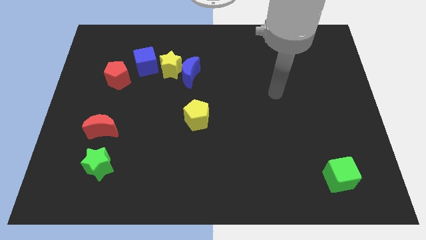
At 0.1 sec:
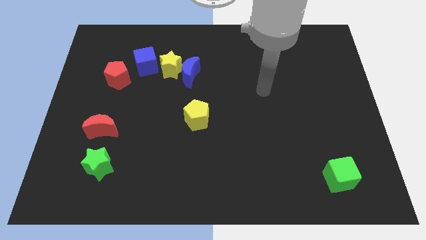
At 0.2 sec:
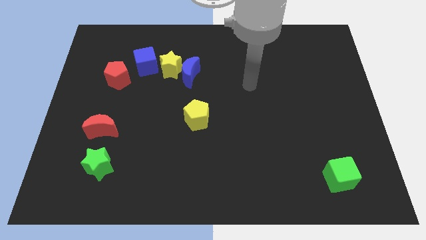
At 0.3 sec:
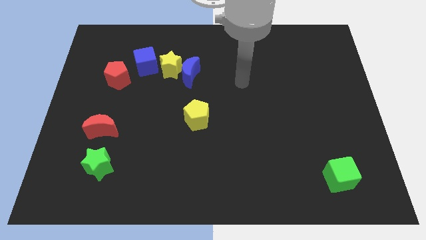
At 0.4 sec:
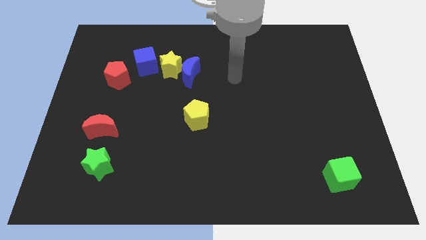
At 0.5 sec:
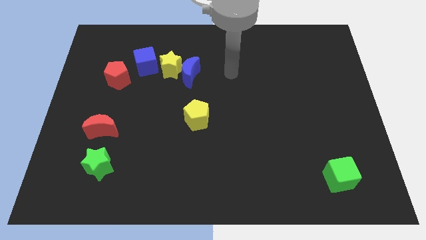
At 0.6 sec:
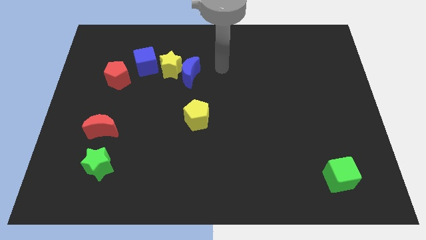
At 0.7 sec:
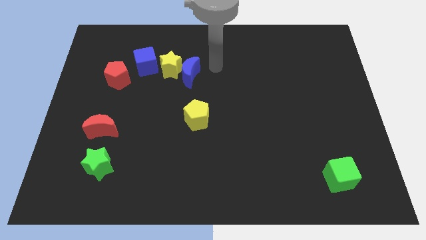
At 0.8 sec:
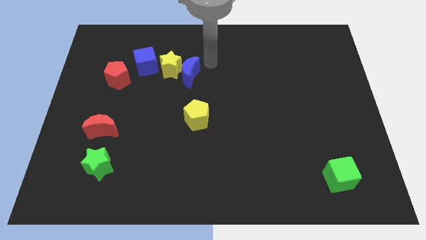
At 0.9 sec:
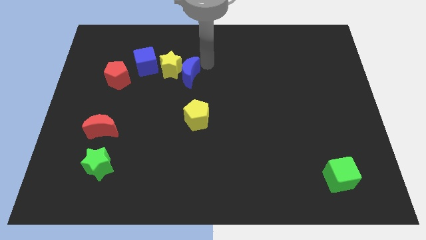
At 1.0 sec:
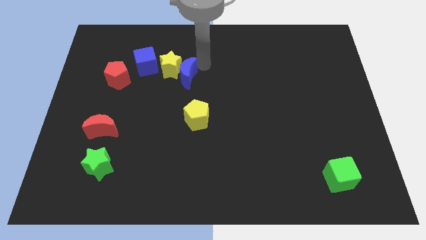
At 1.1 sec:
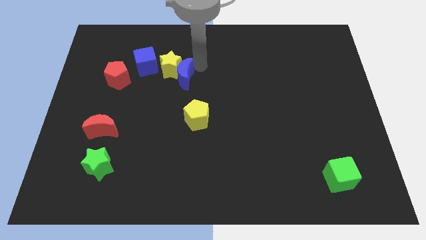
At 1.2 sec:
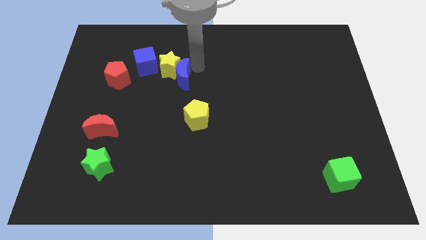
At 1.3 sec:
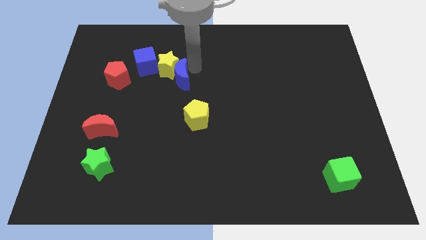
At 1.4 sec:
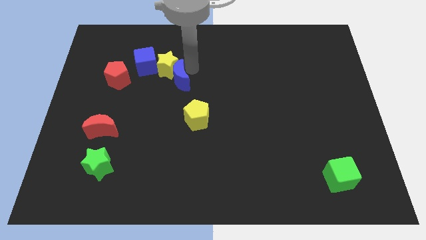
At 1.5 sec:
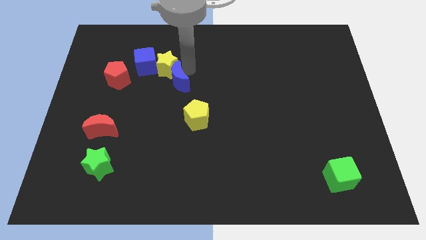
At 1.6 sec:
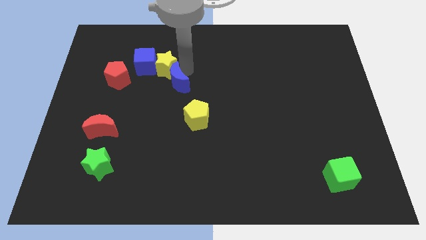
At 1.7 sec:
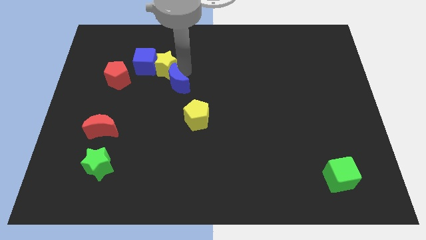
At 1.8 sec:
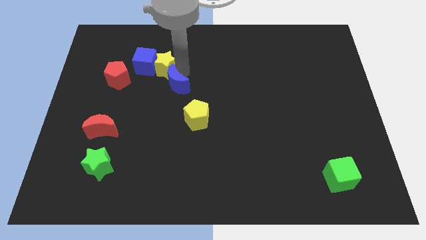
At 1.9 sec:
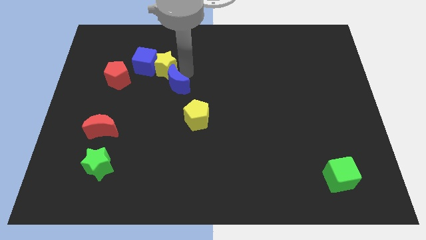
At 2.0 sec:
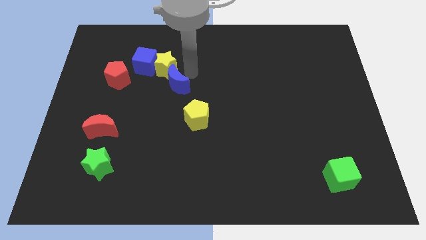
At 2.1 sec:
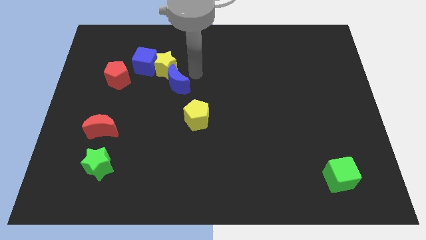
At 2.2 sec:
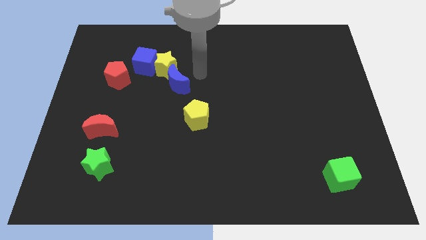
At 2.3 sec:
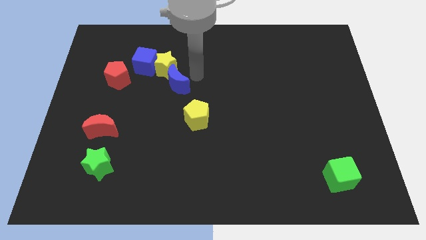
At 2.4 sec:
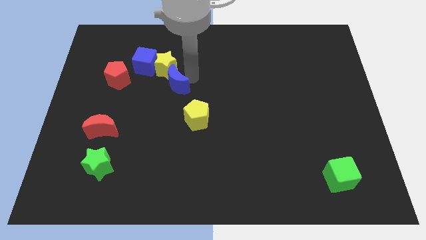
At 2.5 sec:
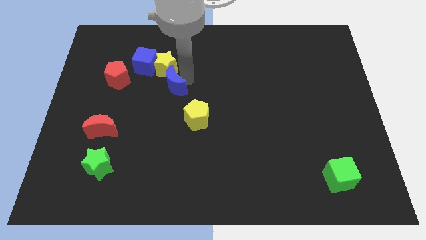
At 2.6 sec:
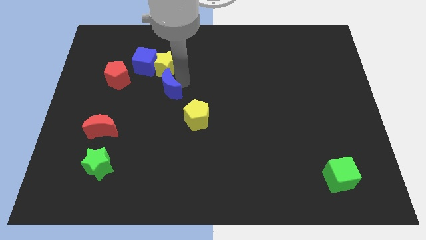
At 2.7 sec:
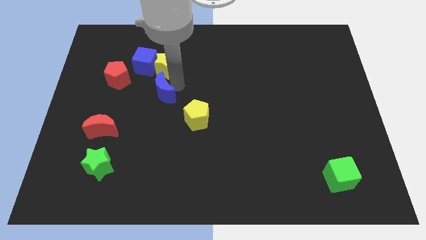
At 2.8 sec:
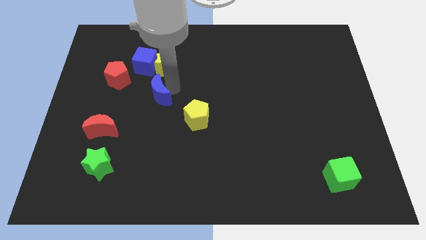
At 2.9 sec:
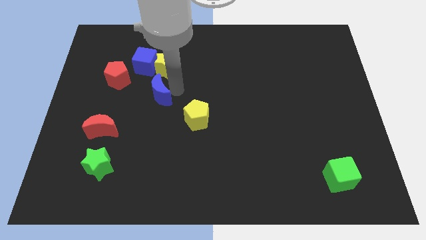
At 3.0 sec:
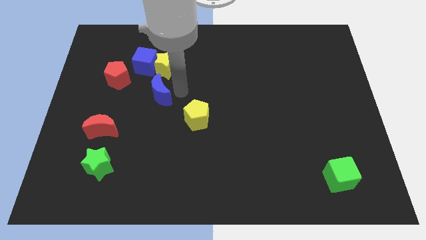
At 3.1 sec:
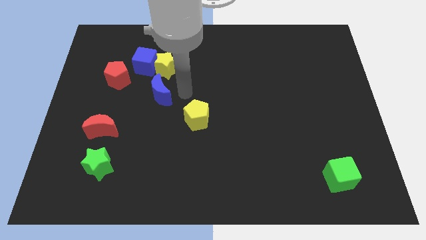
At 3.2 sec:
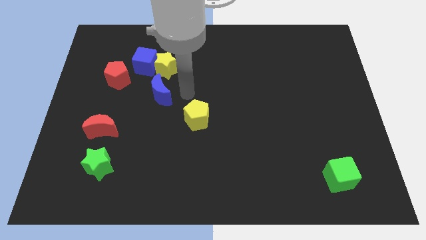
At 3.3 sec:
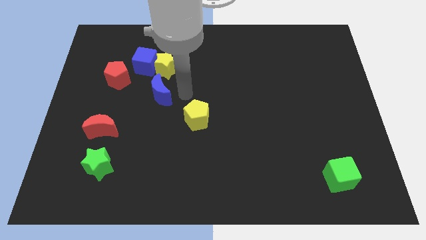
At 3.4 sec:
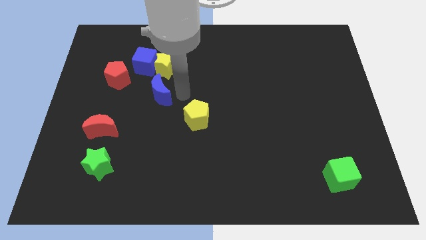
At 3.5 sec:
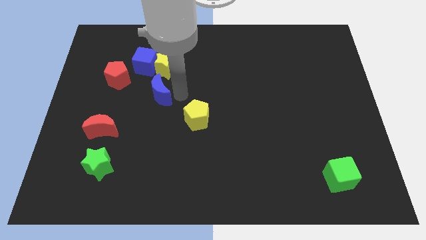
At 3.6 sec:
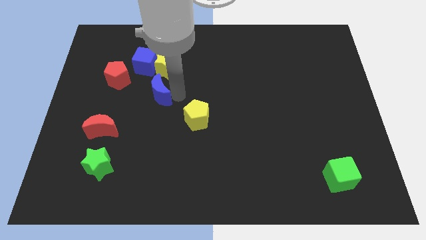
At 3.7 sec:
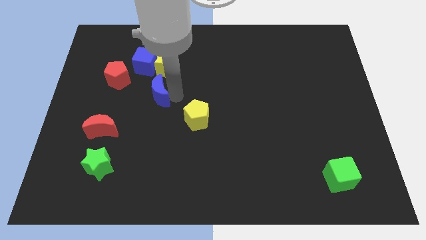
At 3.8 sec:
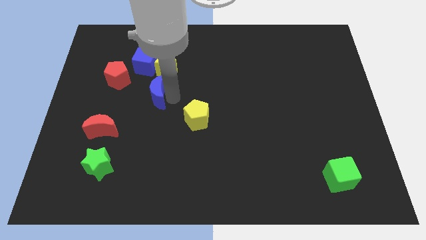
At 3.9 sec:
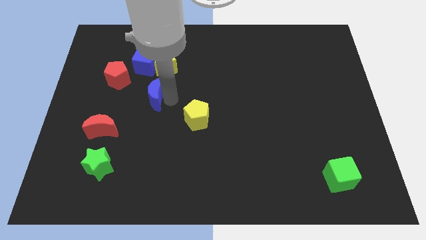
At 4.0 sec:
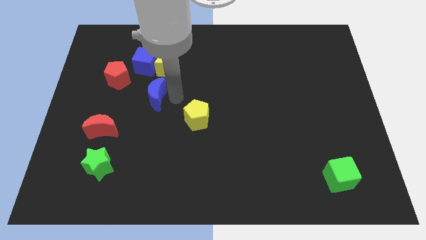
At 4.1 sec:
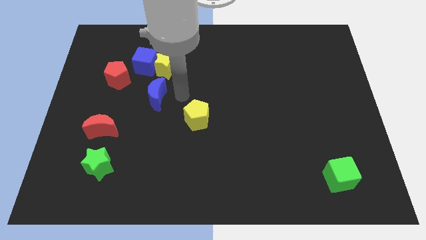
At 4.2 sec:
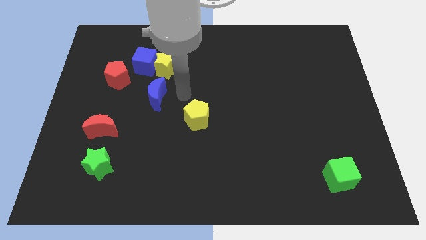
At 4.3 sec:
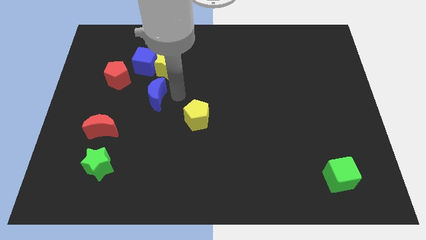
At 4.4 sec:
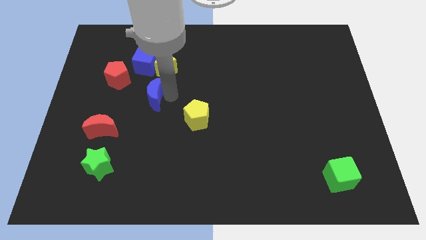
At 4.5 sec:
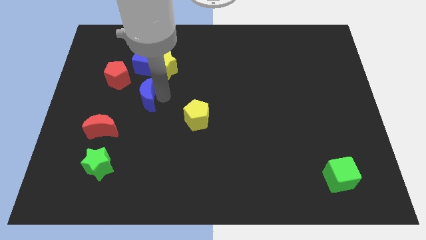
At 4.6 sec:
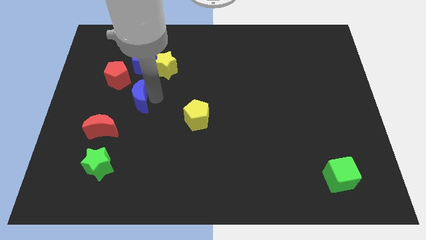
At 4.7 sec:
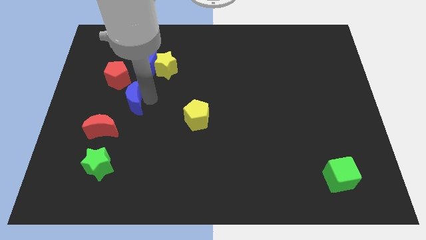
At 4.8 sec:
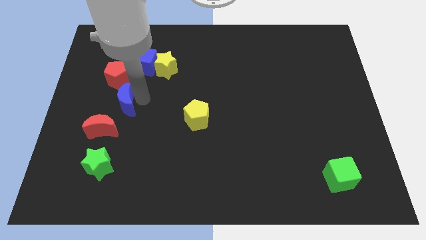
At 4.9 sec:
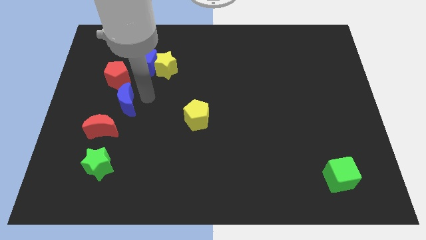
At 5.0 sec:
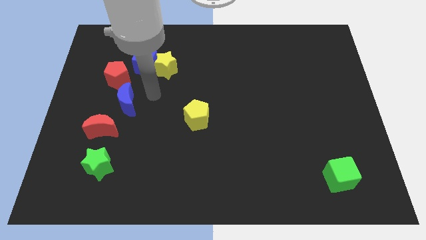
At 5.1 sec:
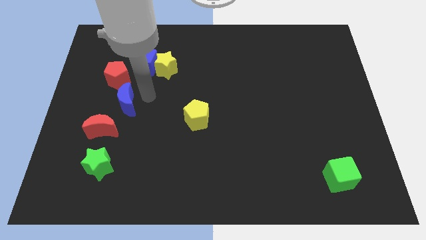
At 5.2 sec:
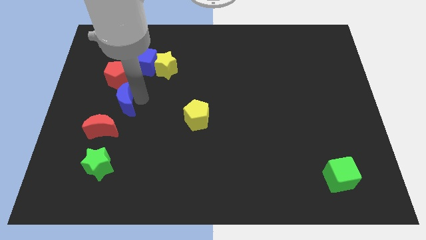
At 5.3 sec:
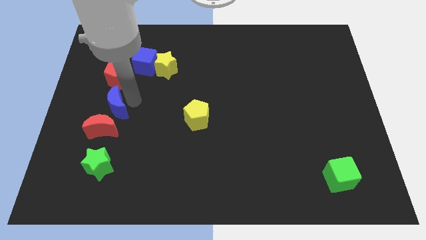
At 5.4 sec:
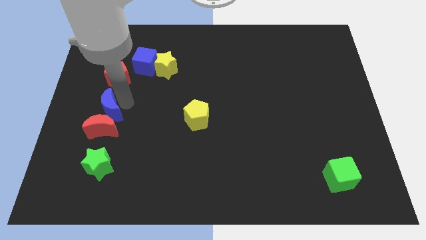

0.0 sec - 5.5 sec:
push the blue moon down and left

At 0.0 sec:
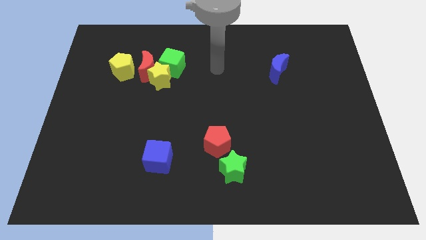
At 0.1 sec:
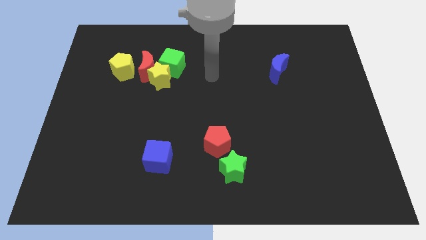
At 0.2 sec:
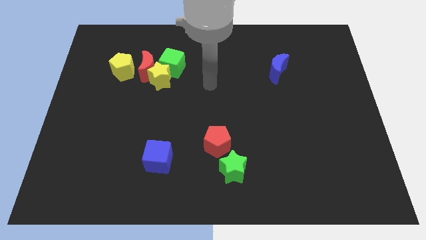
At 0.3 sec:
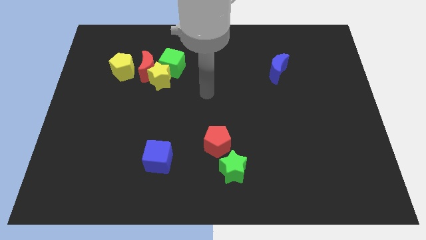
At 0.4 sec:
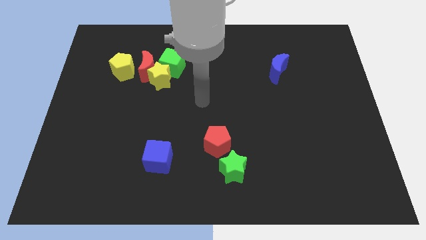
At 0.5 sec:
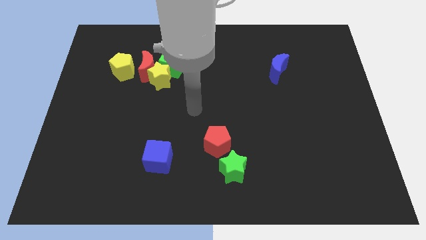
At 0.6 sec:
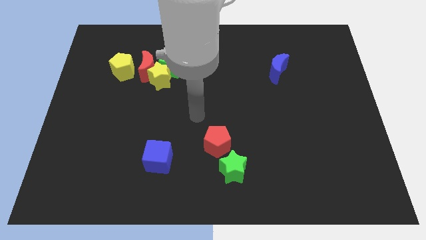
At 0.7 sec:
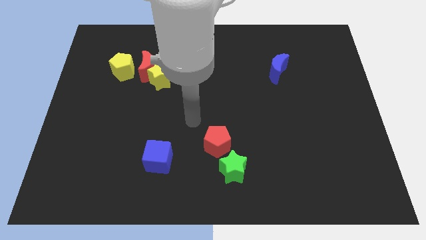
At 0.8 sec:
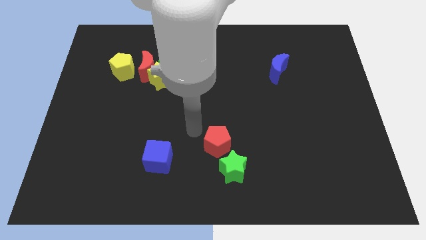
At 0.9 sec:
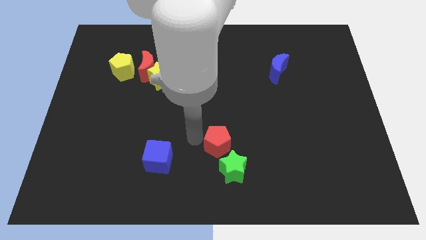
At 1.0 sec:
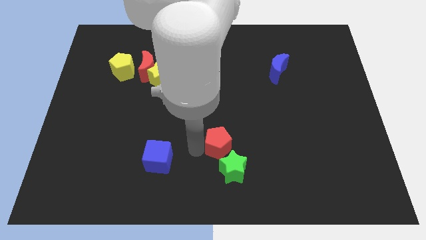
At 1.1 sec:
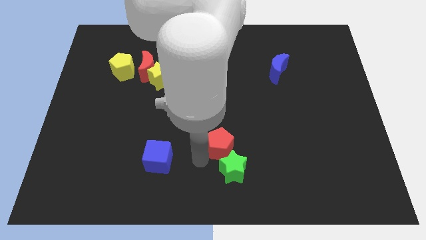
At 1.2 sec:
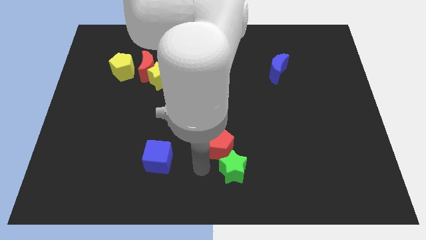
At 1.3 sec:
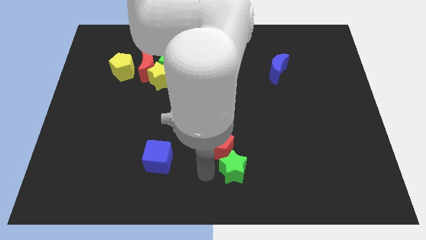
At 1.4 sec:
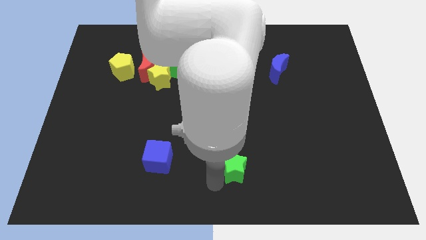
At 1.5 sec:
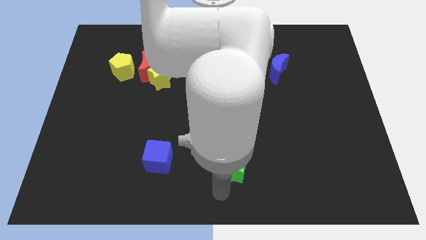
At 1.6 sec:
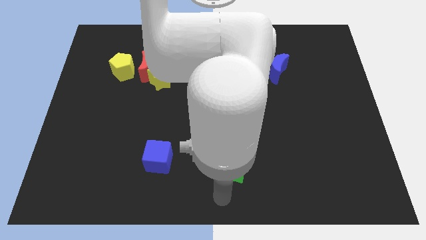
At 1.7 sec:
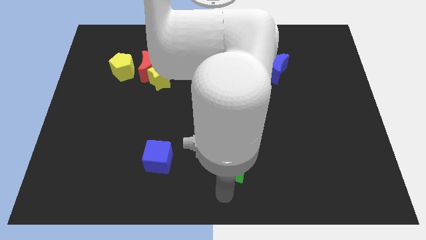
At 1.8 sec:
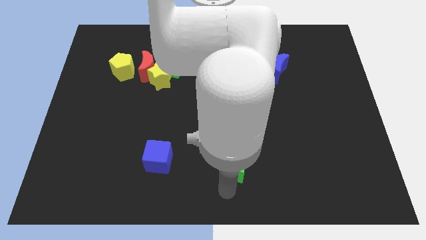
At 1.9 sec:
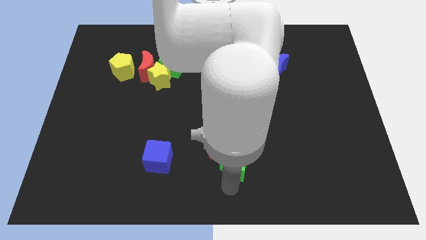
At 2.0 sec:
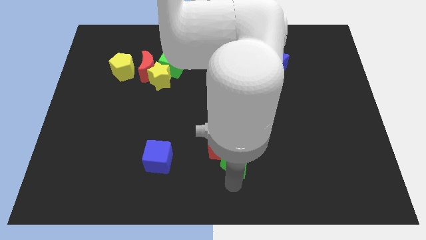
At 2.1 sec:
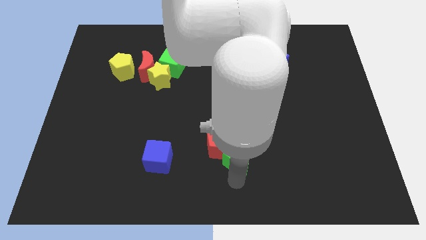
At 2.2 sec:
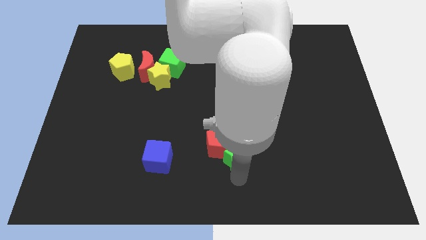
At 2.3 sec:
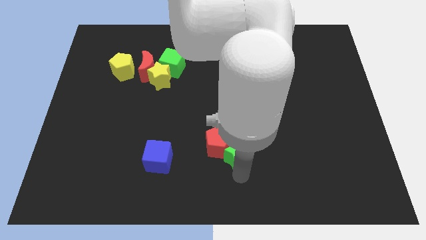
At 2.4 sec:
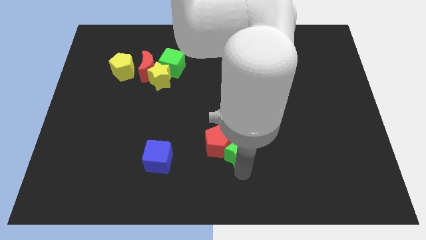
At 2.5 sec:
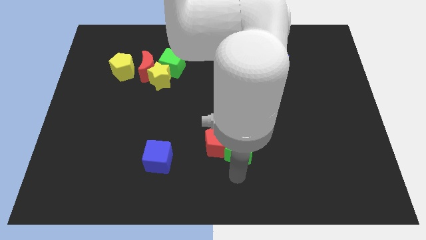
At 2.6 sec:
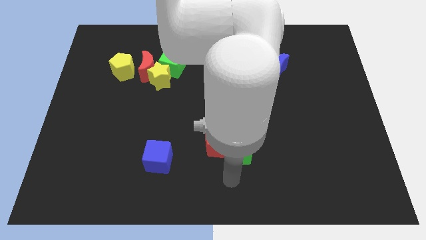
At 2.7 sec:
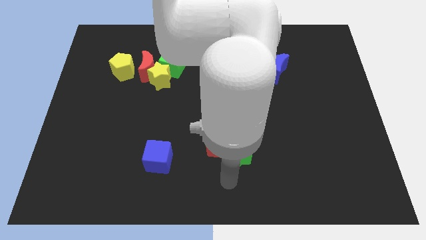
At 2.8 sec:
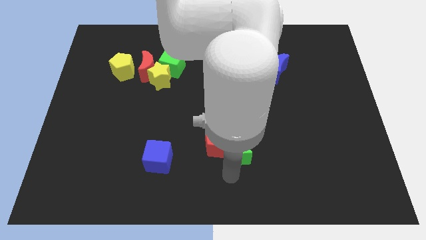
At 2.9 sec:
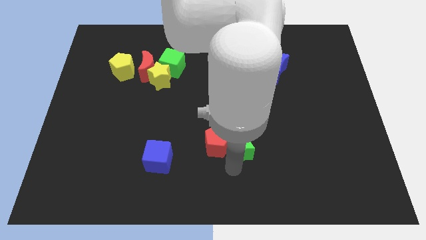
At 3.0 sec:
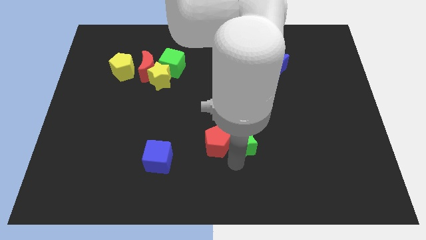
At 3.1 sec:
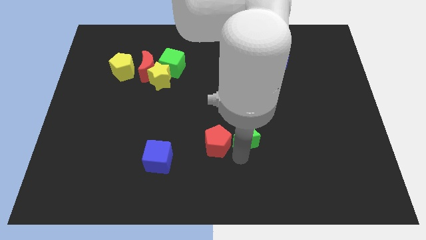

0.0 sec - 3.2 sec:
slightly move the green star upwards
